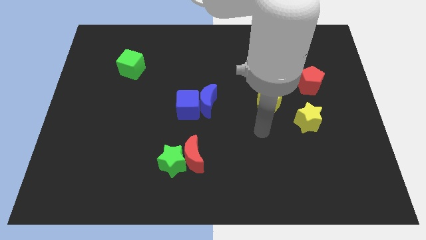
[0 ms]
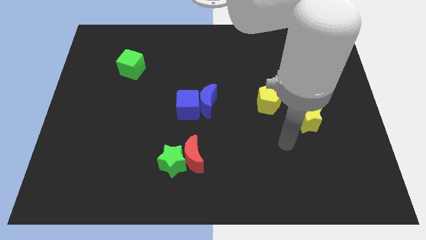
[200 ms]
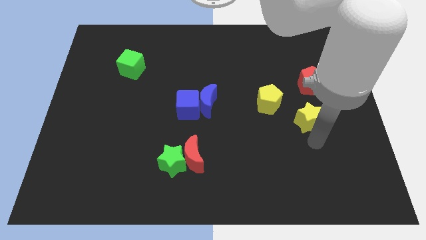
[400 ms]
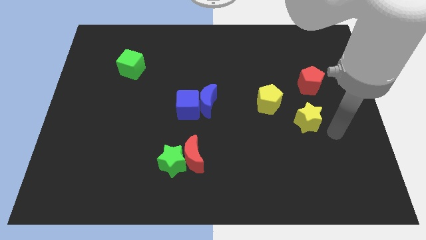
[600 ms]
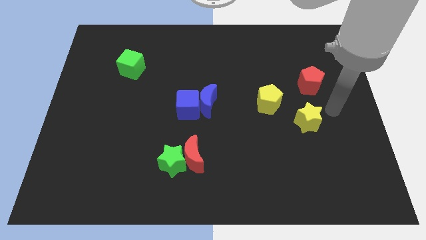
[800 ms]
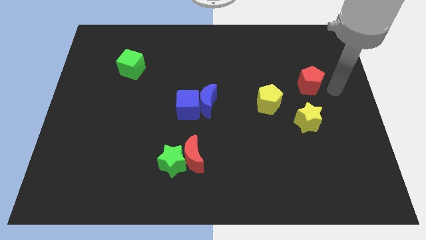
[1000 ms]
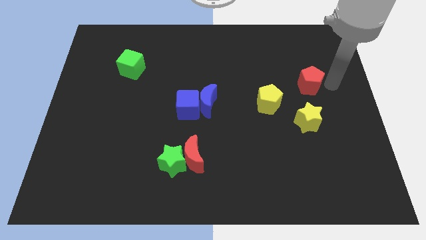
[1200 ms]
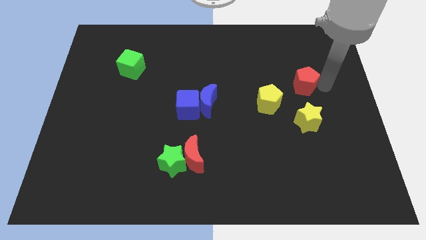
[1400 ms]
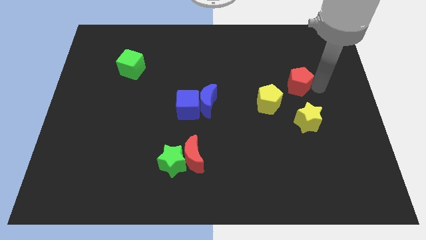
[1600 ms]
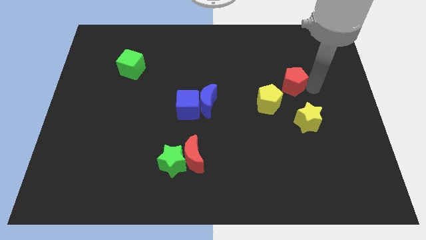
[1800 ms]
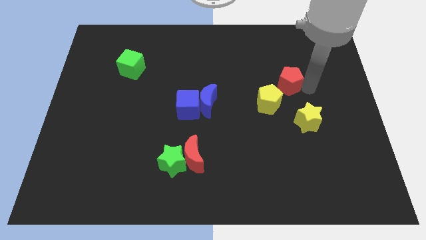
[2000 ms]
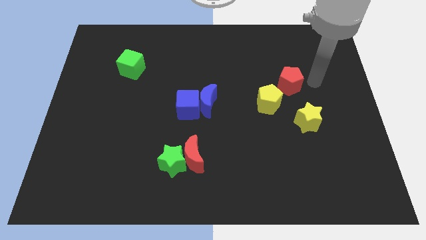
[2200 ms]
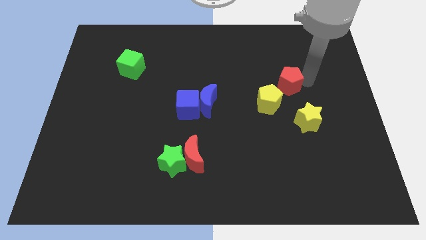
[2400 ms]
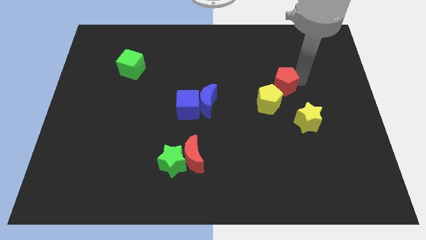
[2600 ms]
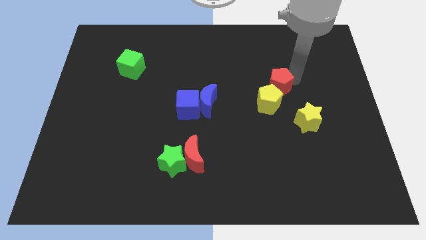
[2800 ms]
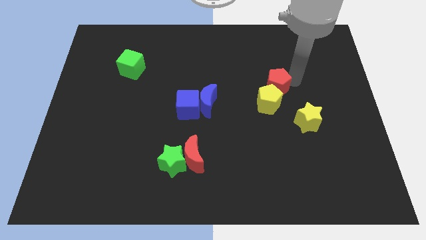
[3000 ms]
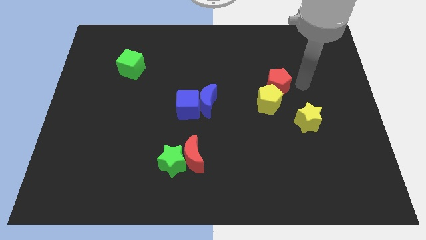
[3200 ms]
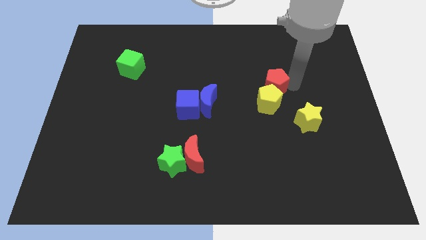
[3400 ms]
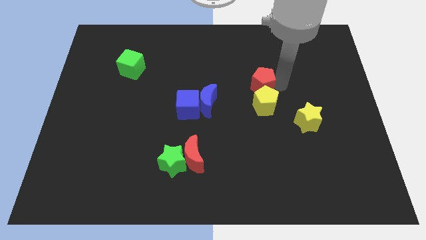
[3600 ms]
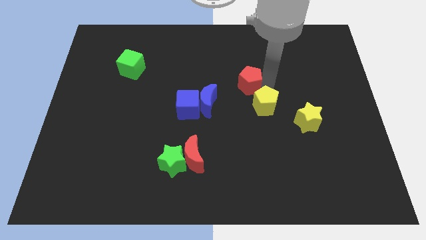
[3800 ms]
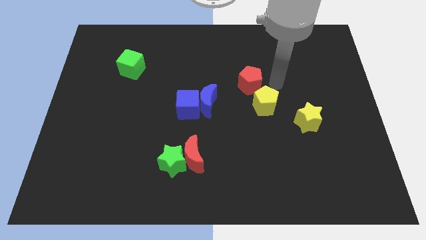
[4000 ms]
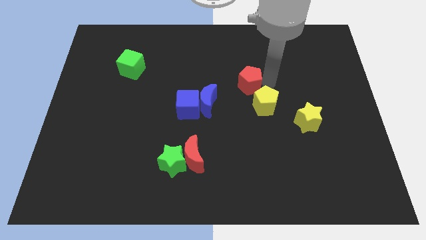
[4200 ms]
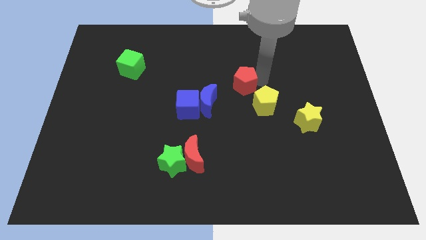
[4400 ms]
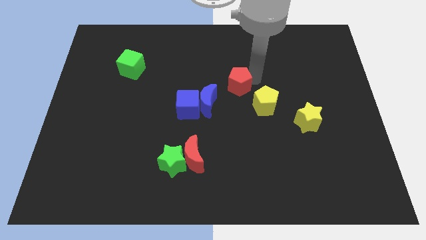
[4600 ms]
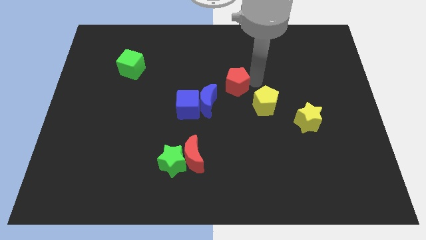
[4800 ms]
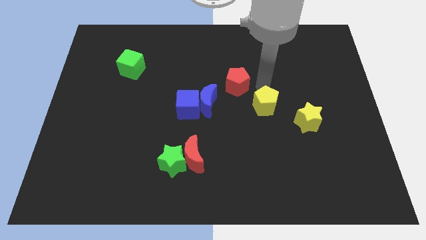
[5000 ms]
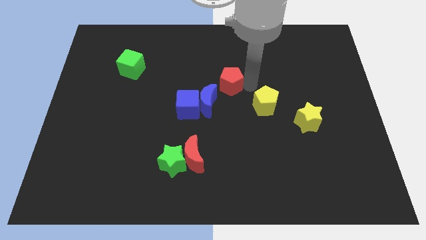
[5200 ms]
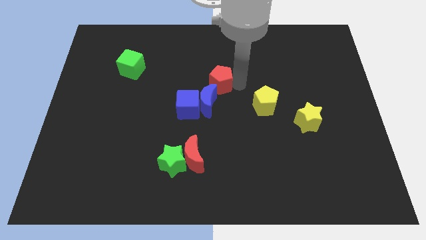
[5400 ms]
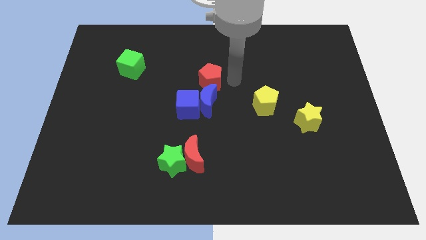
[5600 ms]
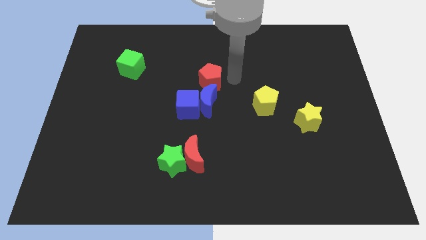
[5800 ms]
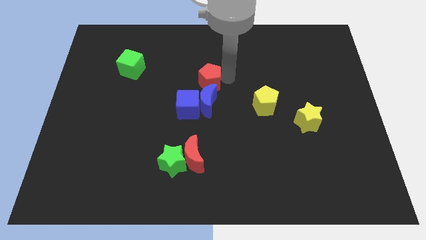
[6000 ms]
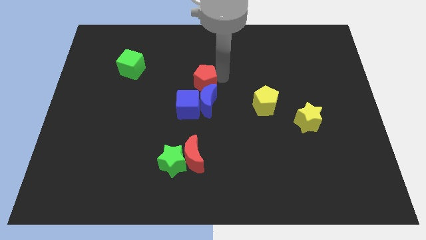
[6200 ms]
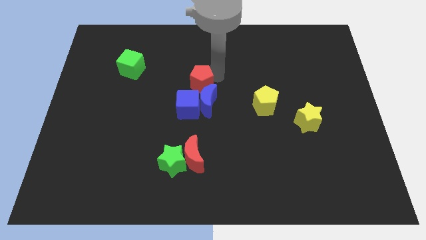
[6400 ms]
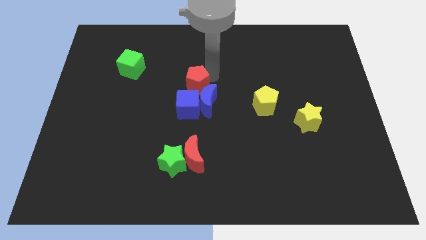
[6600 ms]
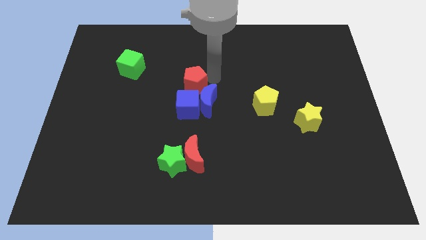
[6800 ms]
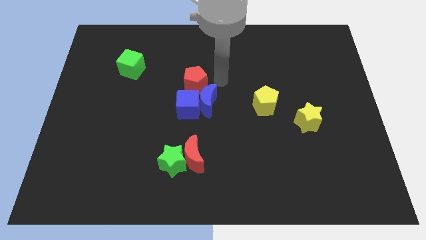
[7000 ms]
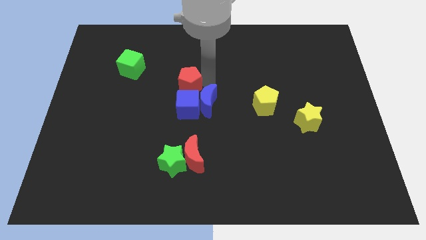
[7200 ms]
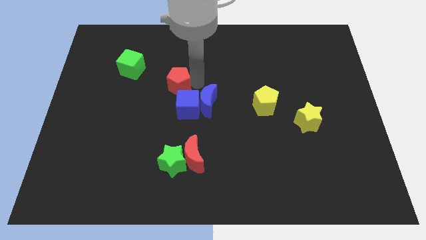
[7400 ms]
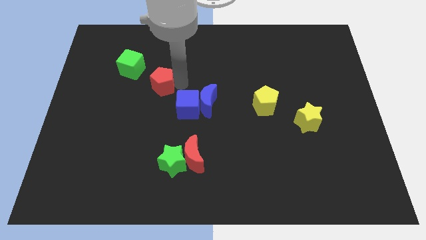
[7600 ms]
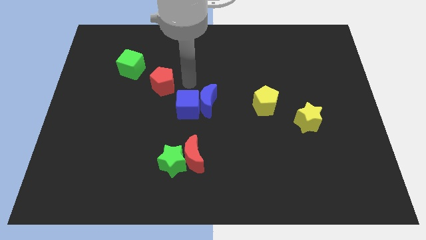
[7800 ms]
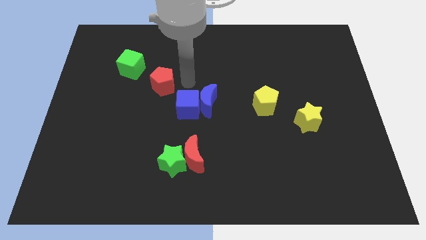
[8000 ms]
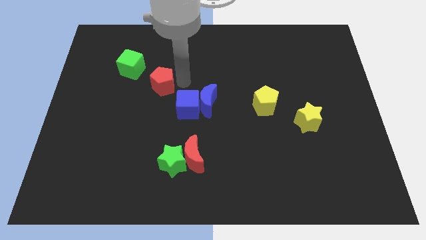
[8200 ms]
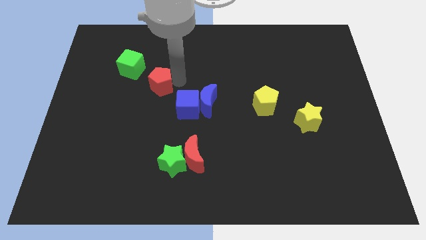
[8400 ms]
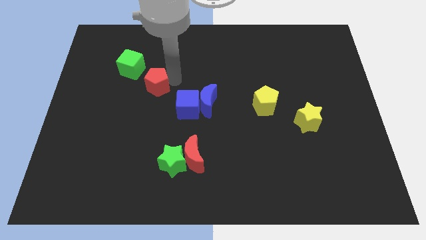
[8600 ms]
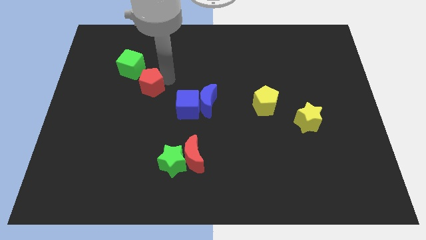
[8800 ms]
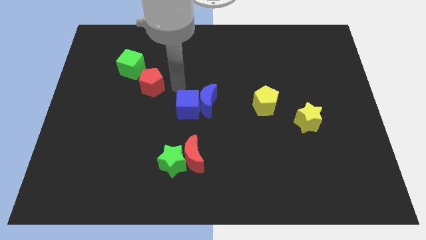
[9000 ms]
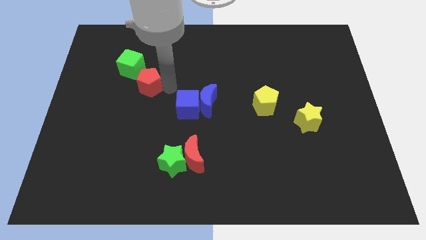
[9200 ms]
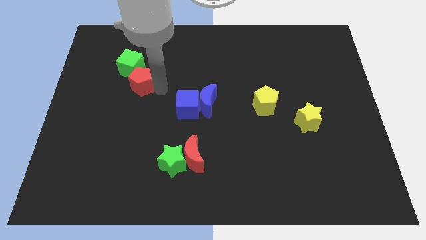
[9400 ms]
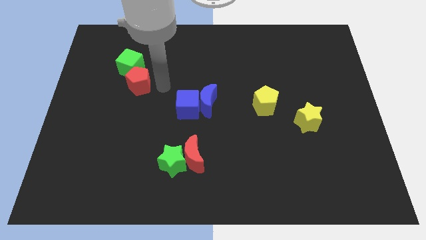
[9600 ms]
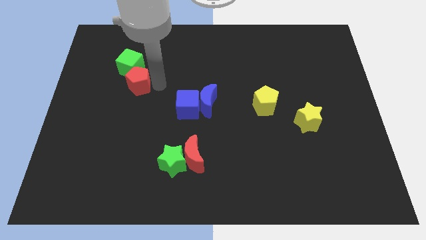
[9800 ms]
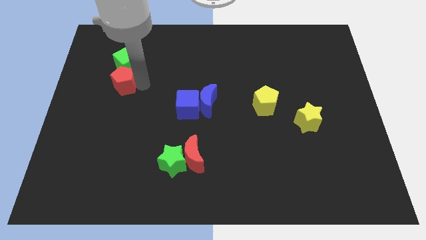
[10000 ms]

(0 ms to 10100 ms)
put the red pentagon diagonally down and to the left of the green cube

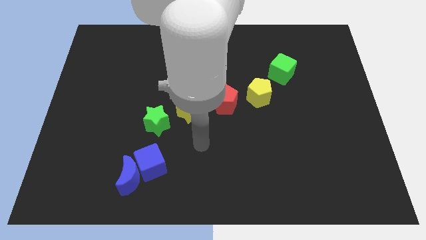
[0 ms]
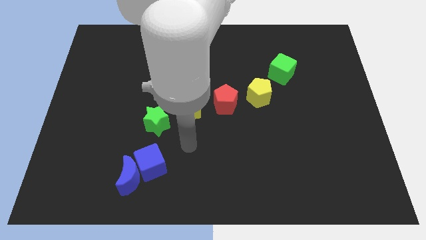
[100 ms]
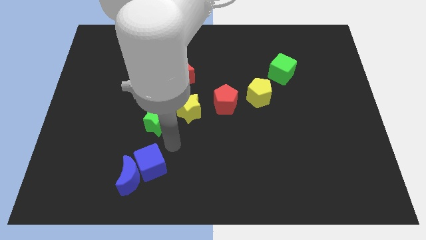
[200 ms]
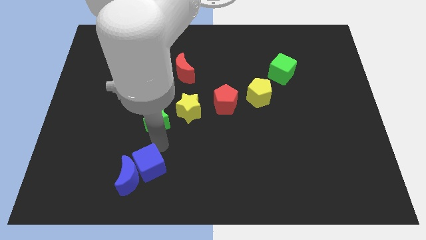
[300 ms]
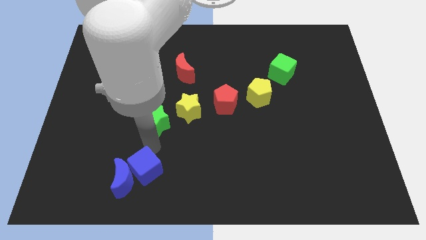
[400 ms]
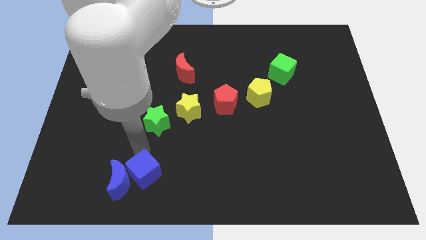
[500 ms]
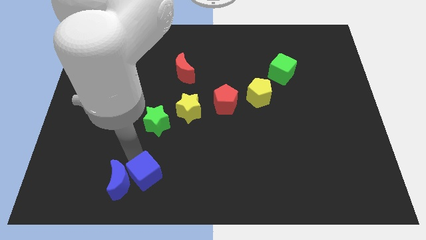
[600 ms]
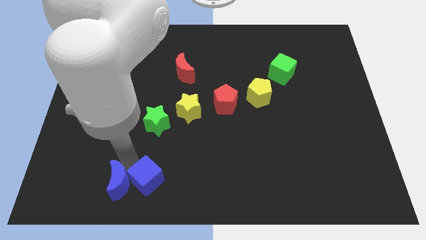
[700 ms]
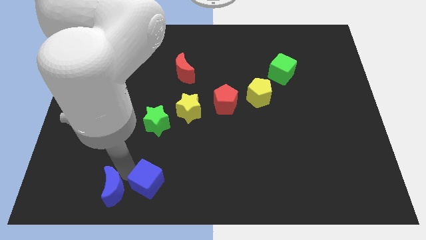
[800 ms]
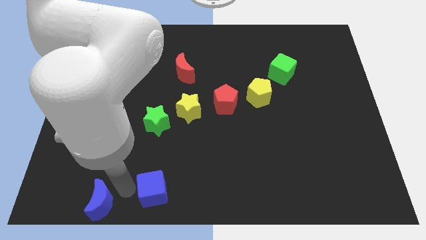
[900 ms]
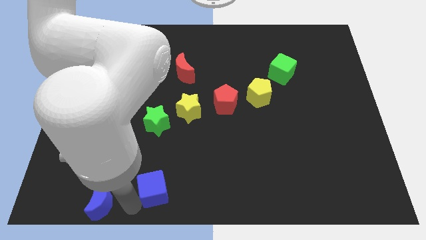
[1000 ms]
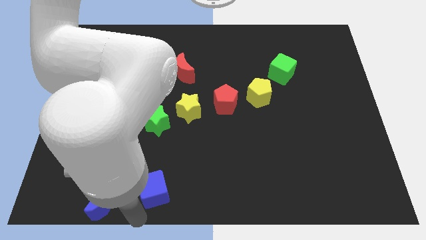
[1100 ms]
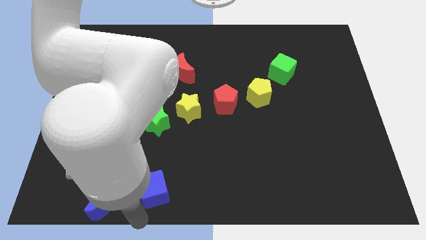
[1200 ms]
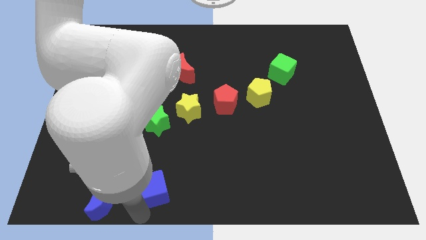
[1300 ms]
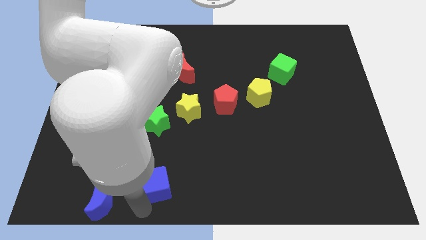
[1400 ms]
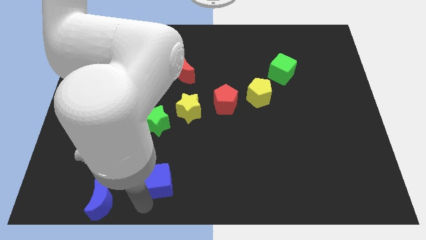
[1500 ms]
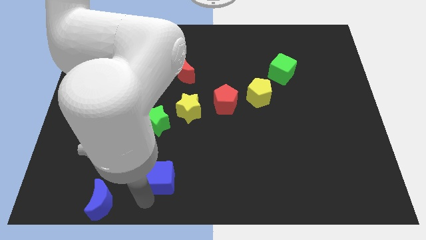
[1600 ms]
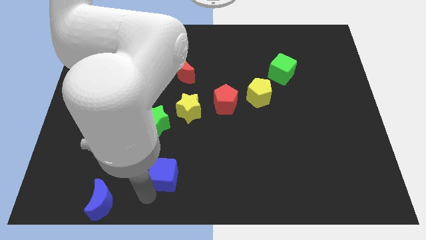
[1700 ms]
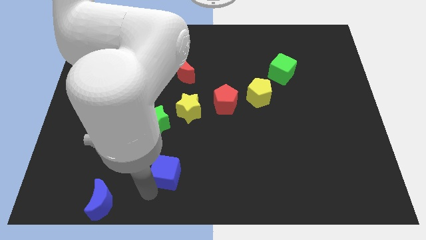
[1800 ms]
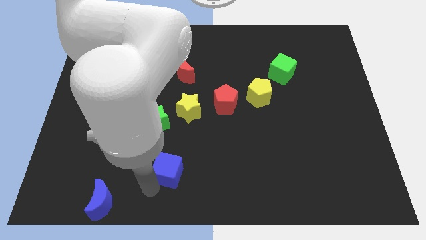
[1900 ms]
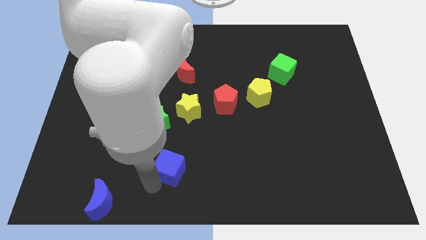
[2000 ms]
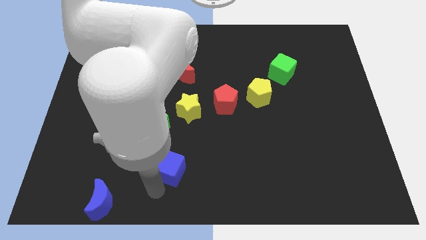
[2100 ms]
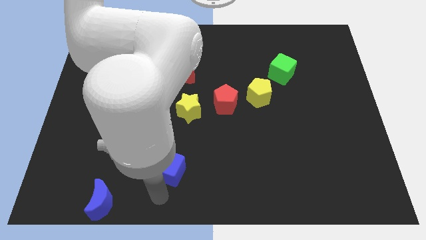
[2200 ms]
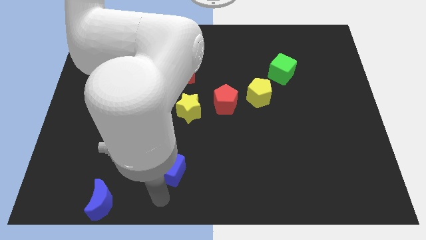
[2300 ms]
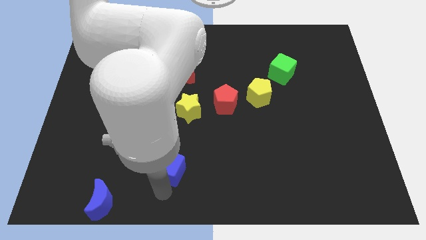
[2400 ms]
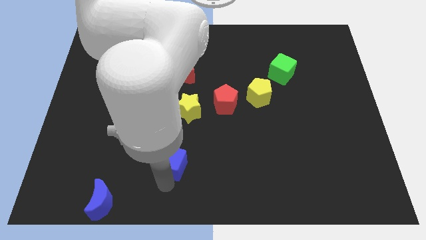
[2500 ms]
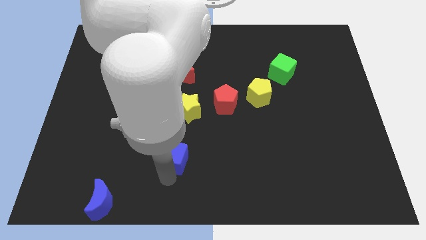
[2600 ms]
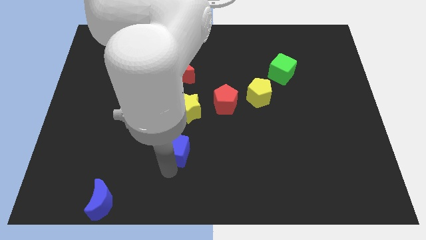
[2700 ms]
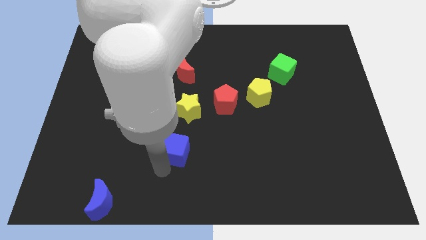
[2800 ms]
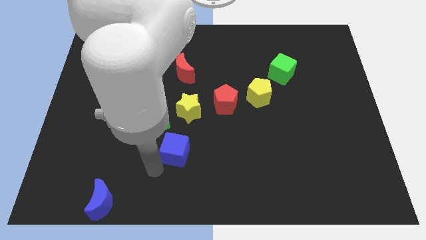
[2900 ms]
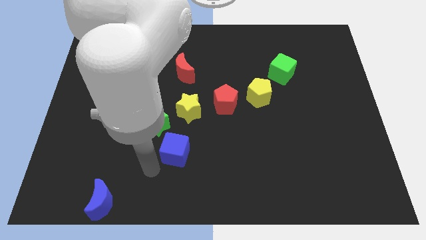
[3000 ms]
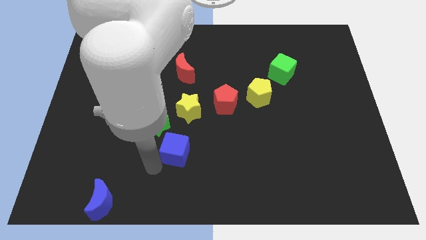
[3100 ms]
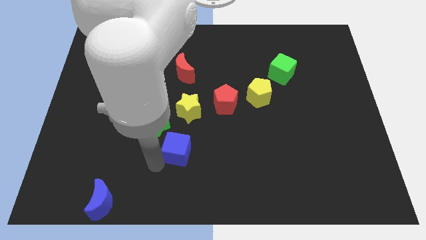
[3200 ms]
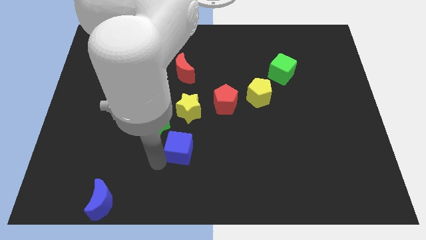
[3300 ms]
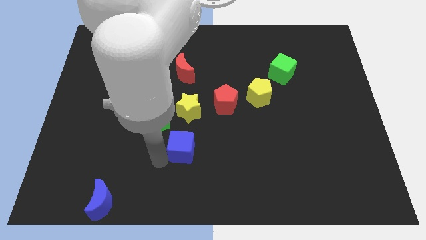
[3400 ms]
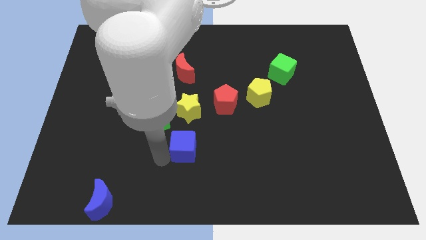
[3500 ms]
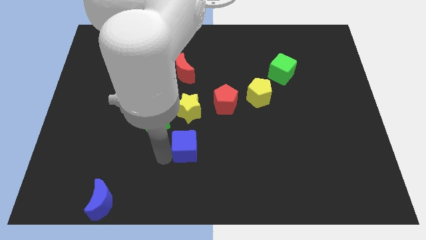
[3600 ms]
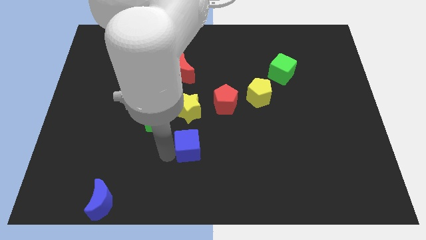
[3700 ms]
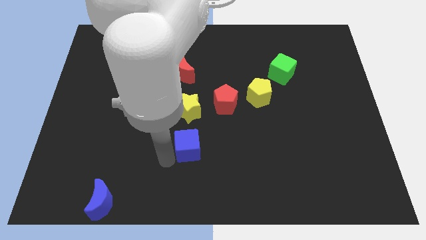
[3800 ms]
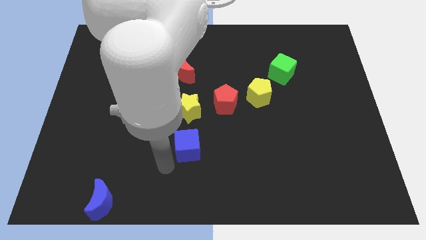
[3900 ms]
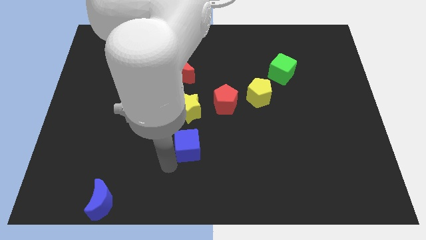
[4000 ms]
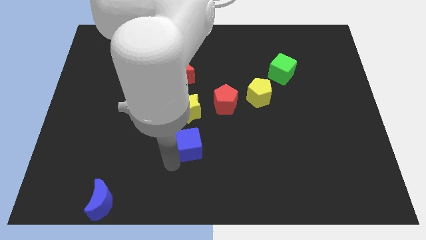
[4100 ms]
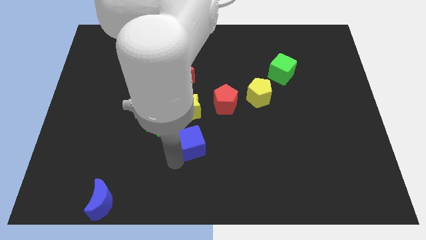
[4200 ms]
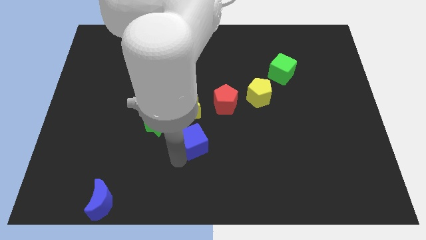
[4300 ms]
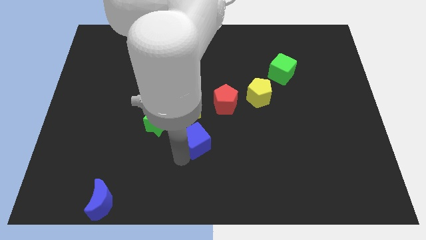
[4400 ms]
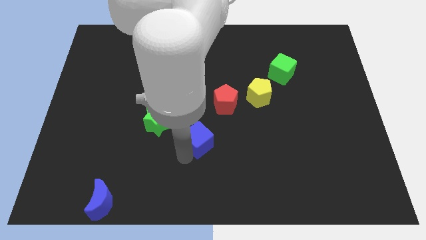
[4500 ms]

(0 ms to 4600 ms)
slide the blue cube to the bottom right of the yellow star
